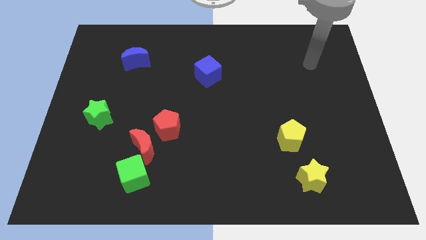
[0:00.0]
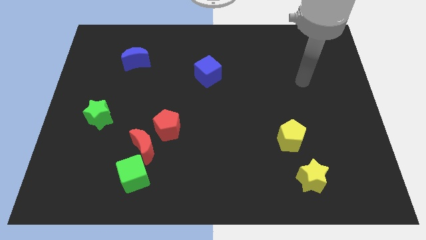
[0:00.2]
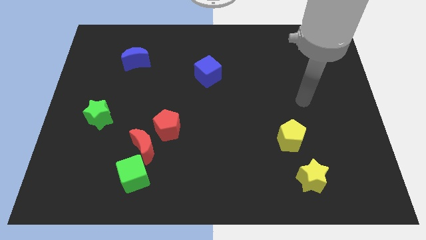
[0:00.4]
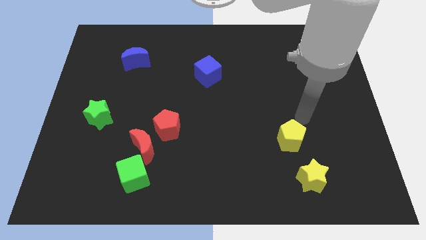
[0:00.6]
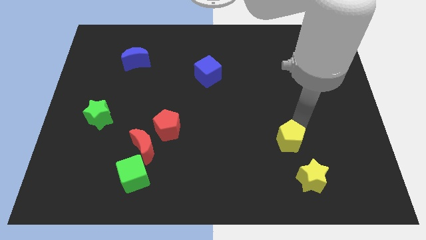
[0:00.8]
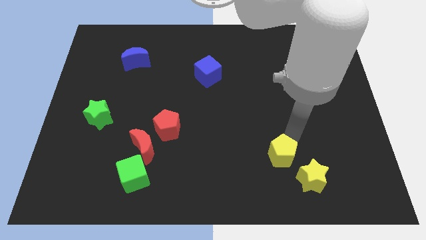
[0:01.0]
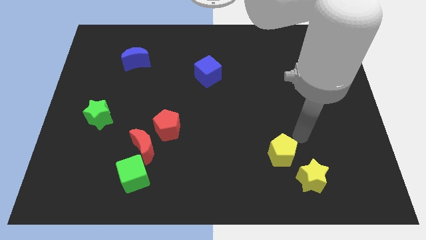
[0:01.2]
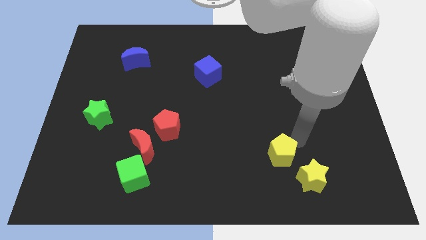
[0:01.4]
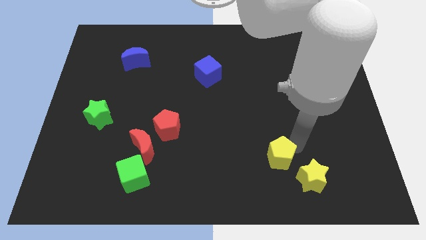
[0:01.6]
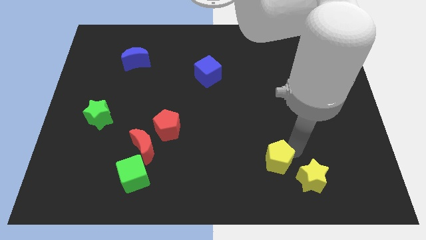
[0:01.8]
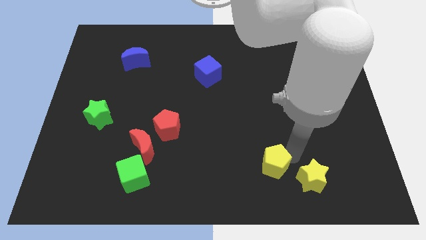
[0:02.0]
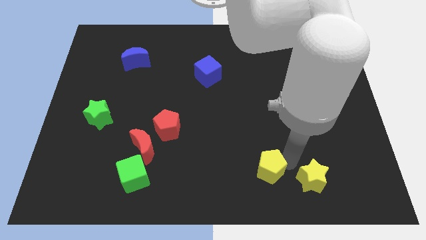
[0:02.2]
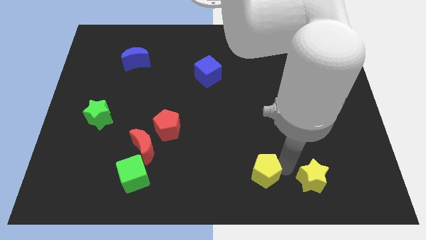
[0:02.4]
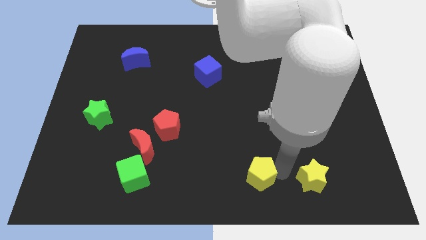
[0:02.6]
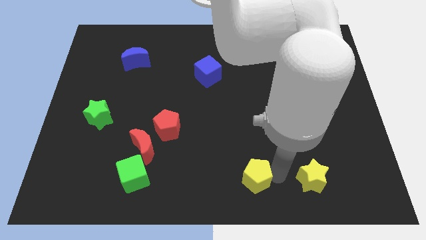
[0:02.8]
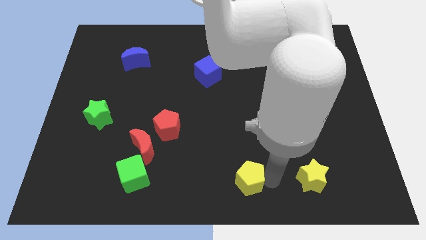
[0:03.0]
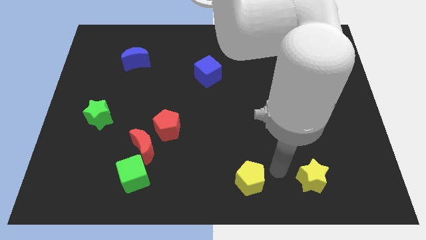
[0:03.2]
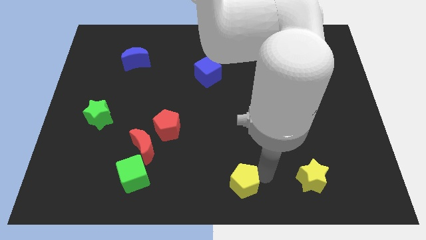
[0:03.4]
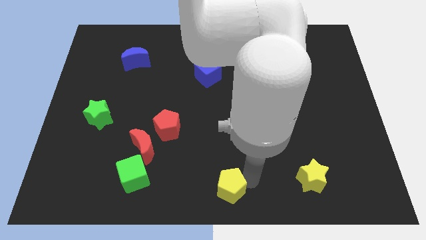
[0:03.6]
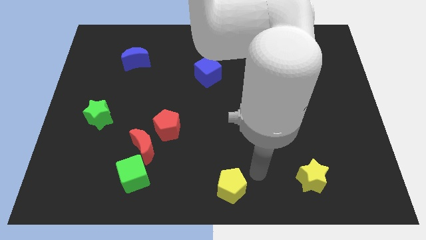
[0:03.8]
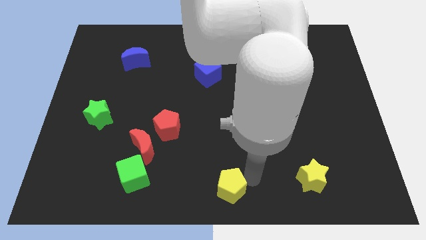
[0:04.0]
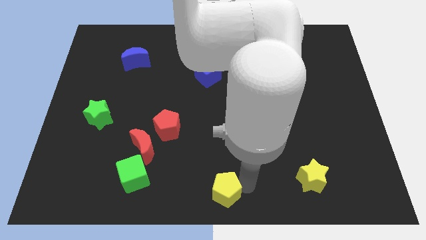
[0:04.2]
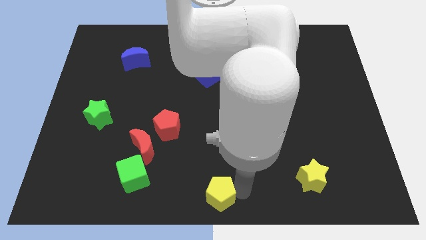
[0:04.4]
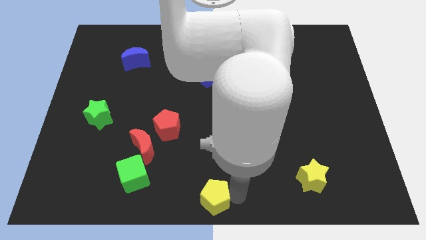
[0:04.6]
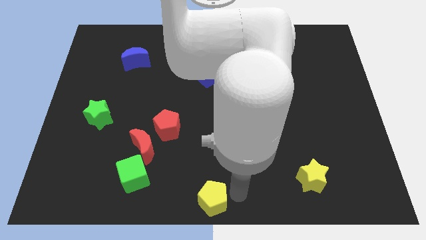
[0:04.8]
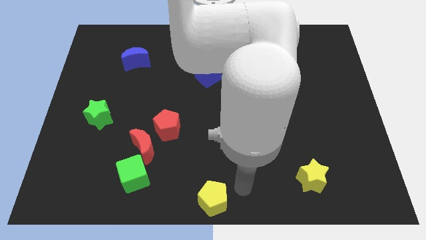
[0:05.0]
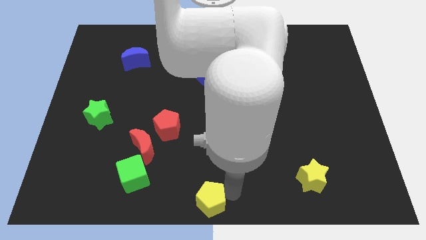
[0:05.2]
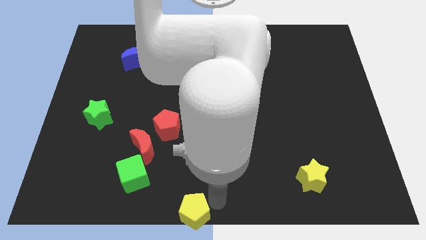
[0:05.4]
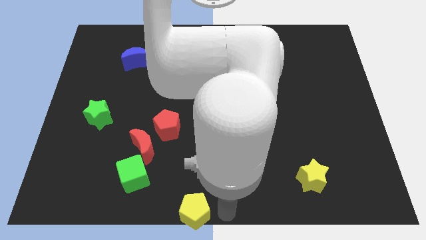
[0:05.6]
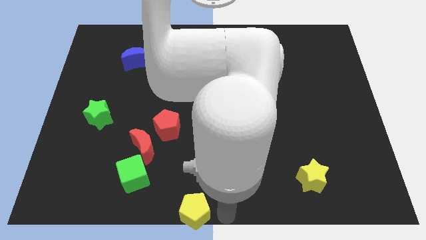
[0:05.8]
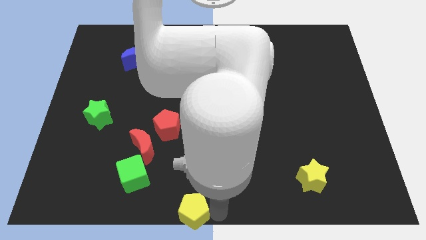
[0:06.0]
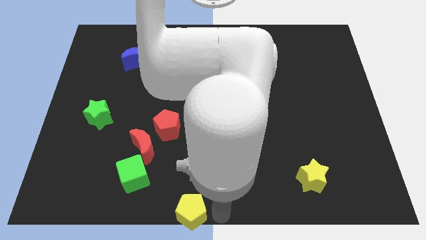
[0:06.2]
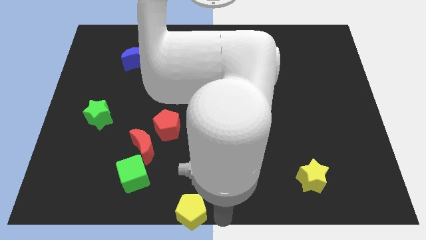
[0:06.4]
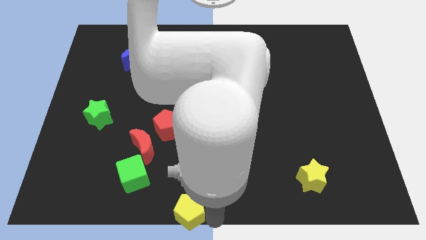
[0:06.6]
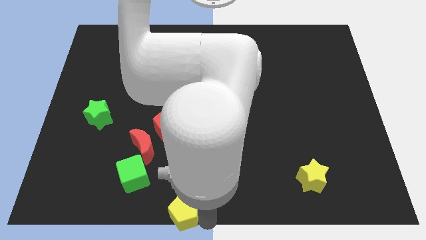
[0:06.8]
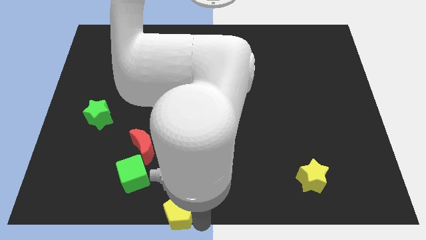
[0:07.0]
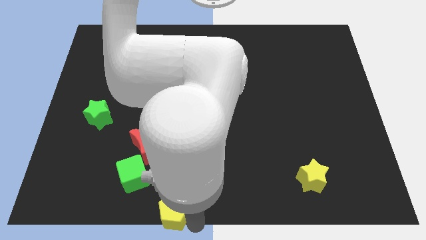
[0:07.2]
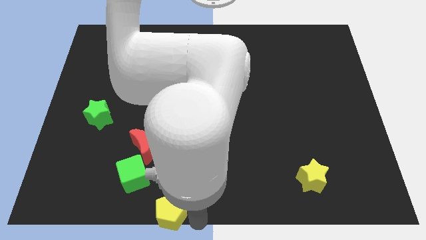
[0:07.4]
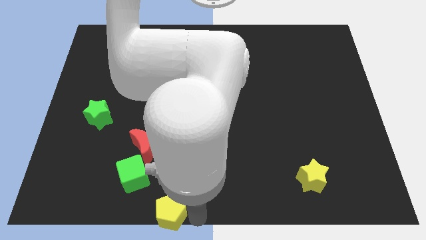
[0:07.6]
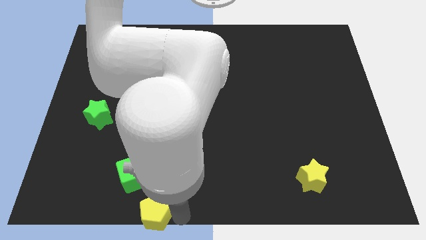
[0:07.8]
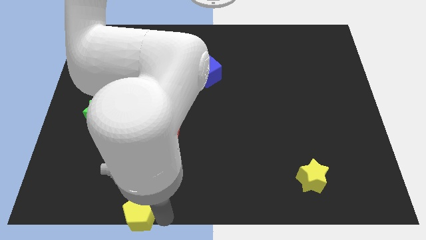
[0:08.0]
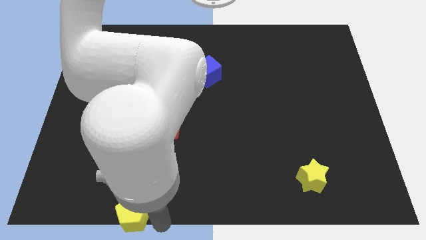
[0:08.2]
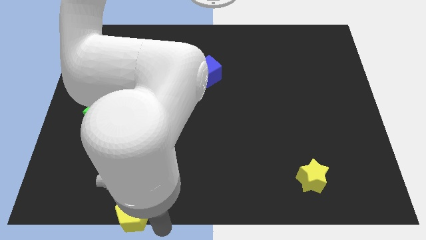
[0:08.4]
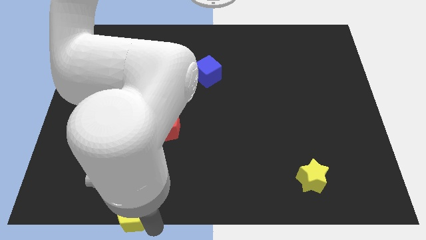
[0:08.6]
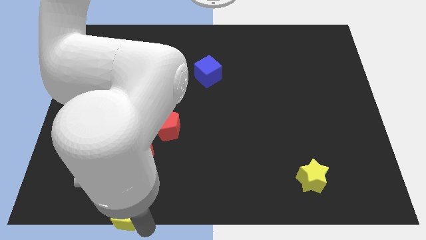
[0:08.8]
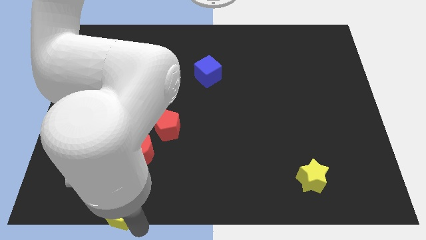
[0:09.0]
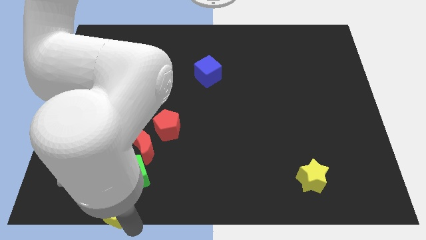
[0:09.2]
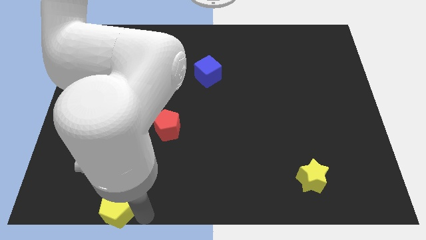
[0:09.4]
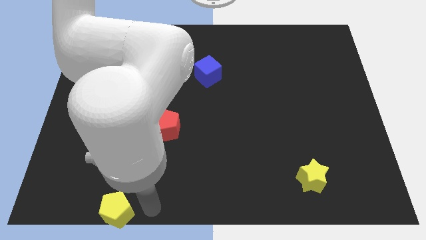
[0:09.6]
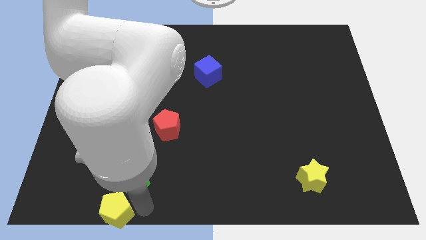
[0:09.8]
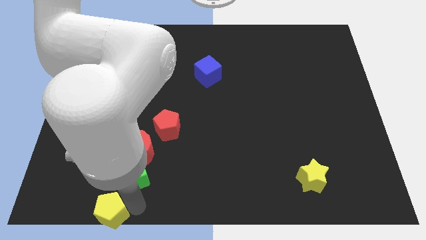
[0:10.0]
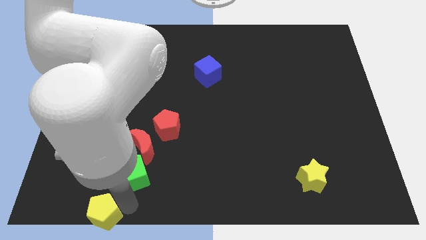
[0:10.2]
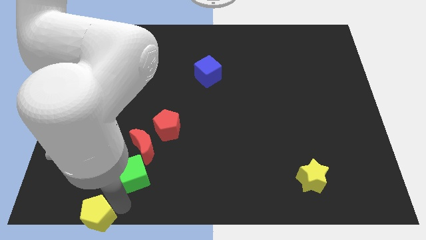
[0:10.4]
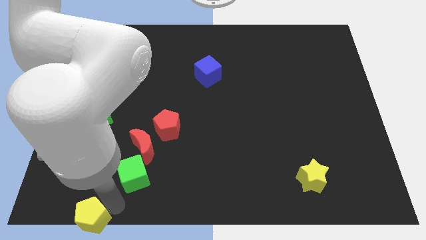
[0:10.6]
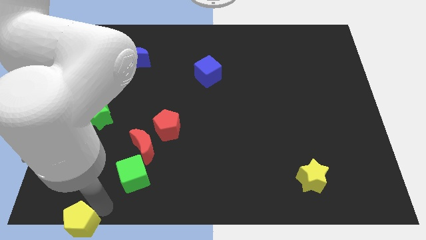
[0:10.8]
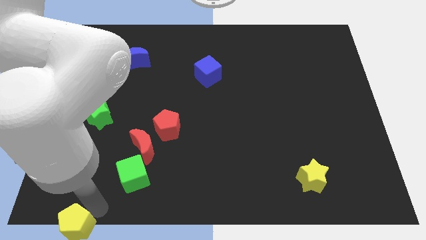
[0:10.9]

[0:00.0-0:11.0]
slide the yellow pentagon to the bottom left corner

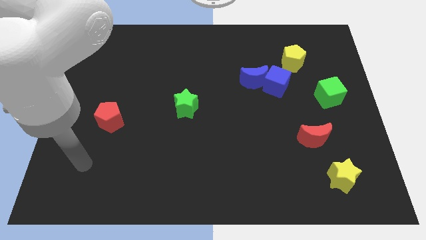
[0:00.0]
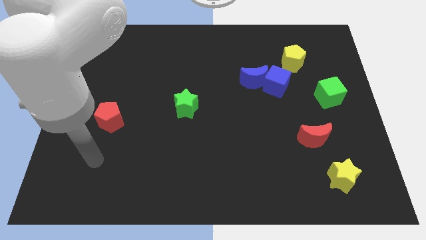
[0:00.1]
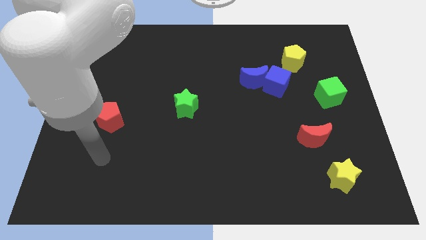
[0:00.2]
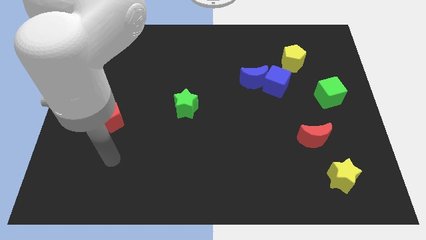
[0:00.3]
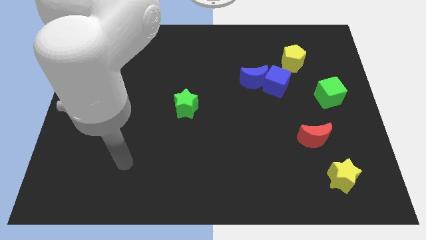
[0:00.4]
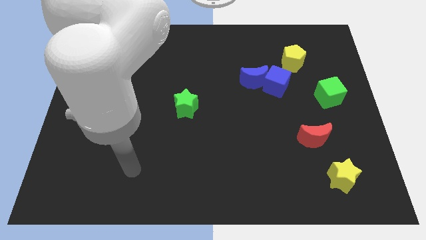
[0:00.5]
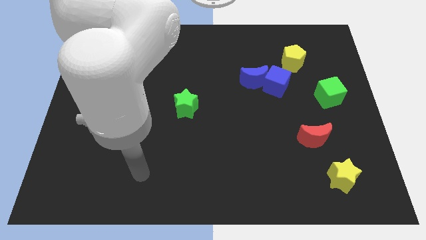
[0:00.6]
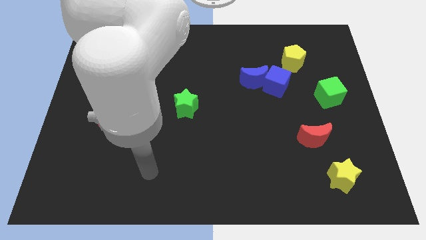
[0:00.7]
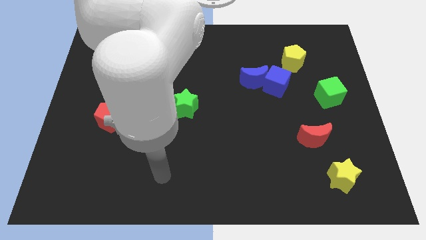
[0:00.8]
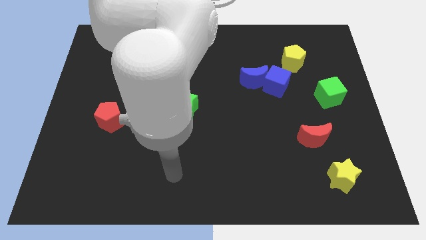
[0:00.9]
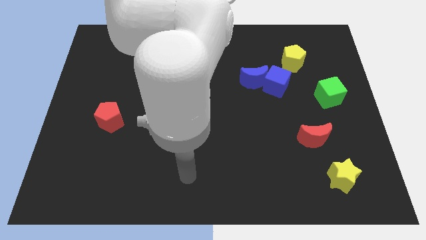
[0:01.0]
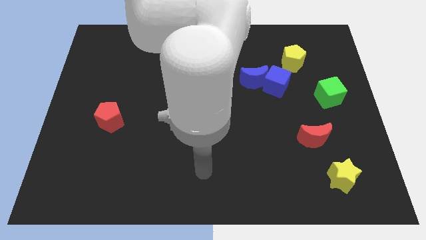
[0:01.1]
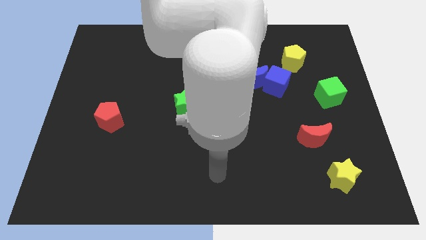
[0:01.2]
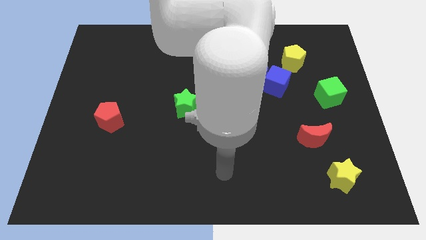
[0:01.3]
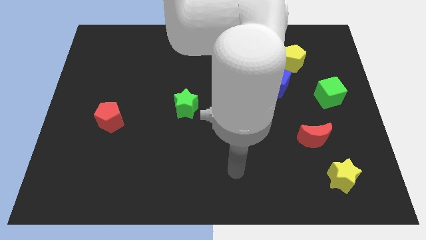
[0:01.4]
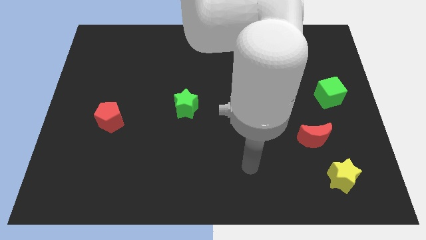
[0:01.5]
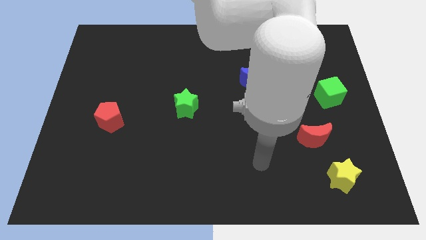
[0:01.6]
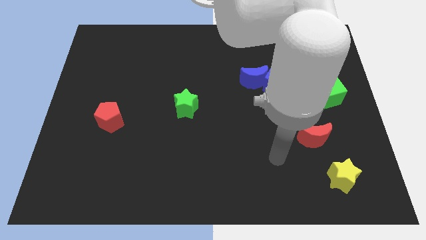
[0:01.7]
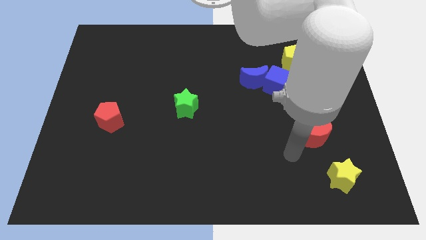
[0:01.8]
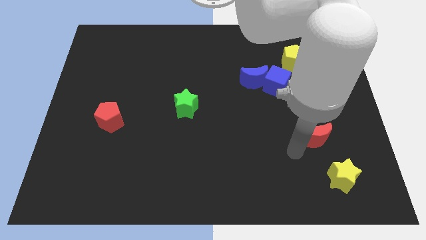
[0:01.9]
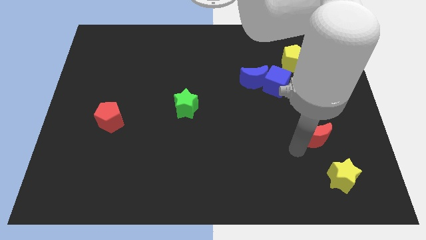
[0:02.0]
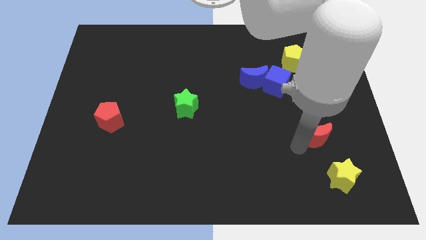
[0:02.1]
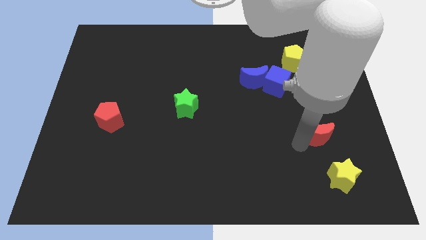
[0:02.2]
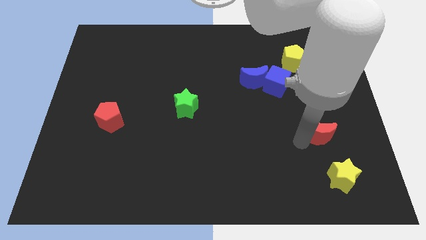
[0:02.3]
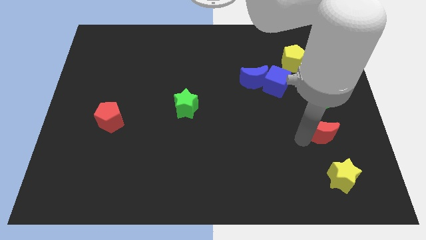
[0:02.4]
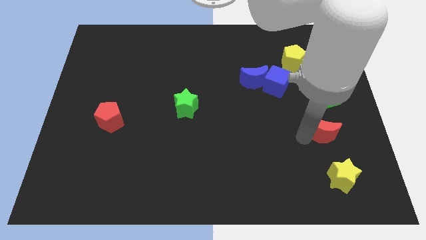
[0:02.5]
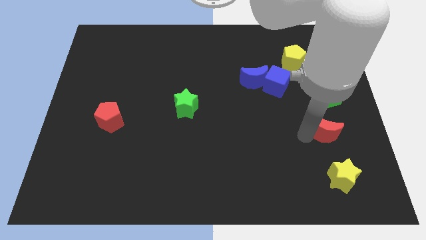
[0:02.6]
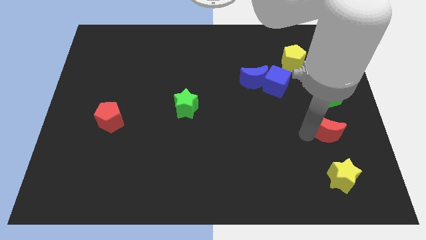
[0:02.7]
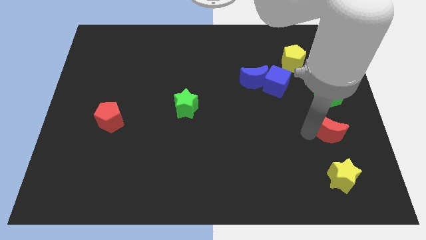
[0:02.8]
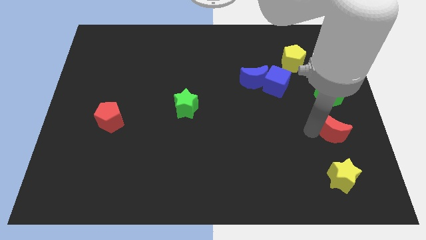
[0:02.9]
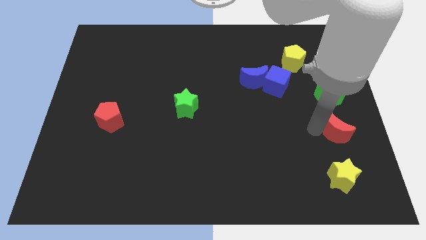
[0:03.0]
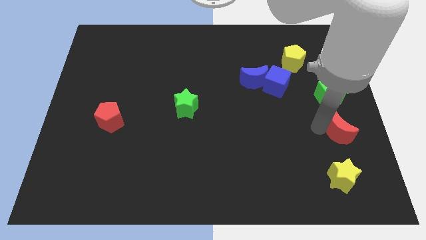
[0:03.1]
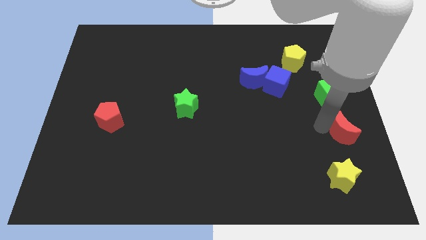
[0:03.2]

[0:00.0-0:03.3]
slide the red moon to the right side
